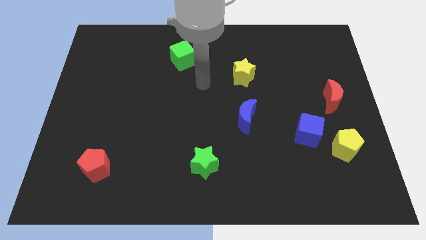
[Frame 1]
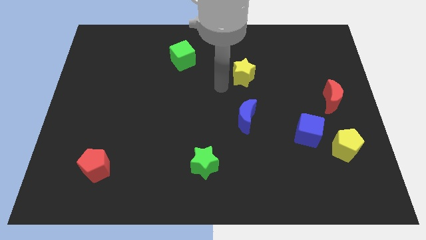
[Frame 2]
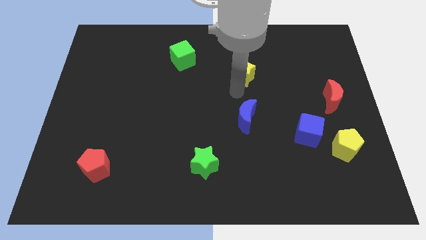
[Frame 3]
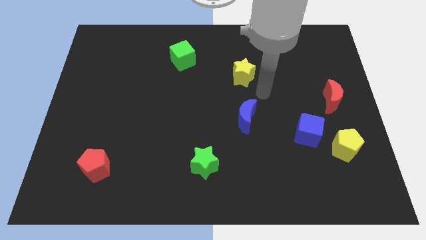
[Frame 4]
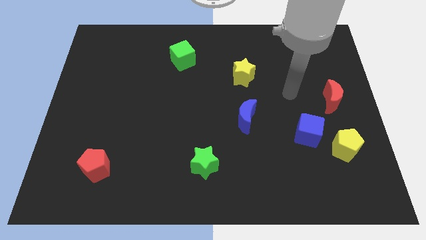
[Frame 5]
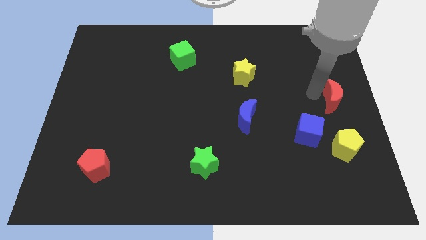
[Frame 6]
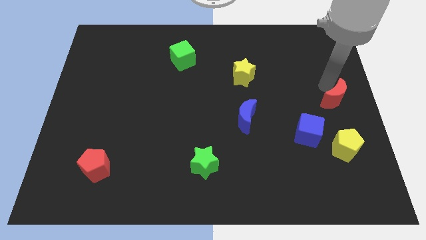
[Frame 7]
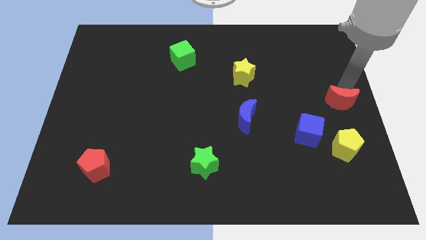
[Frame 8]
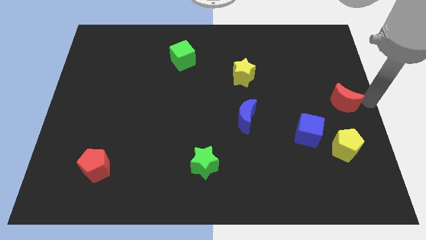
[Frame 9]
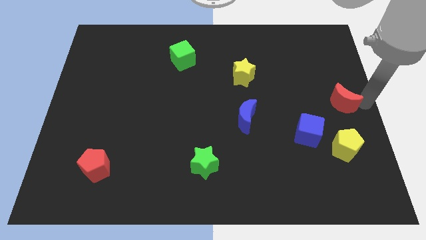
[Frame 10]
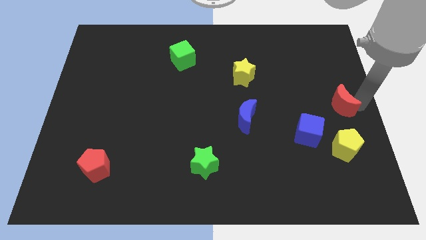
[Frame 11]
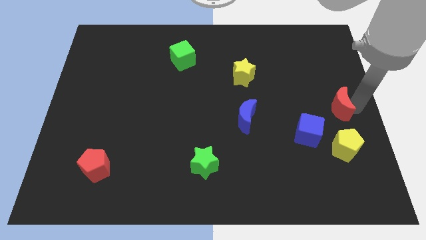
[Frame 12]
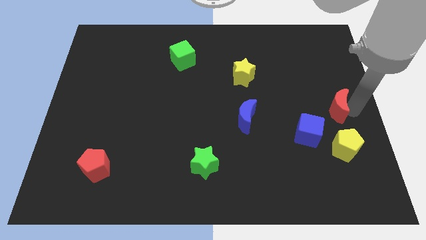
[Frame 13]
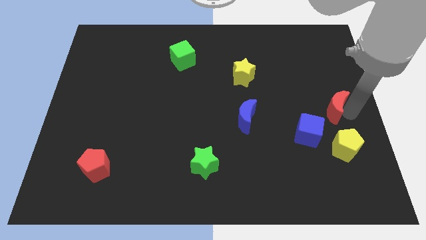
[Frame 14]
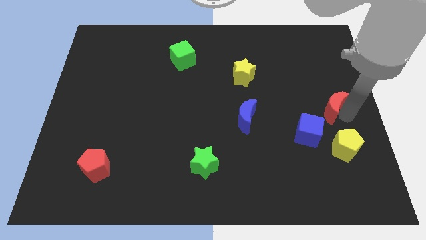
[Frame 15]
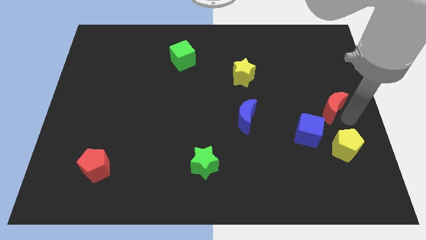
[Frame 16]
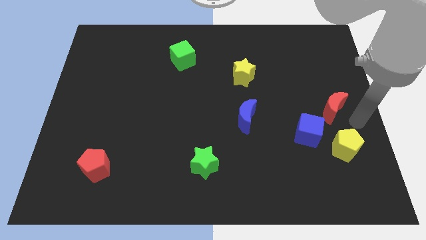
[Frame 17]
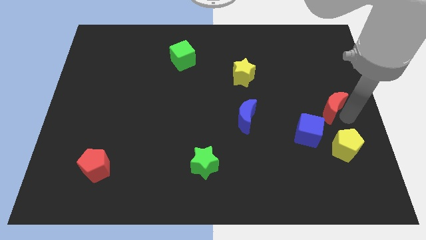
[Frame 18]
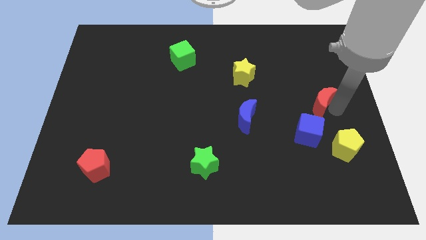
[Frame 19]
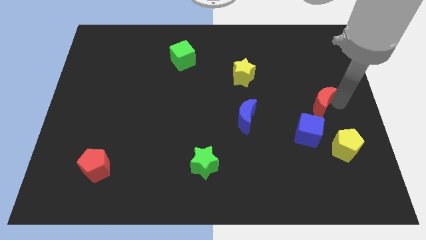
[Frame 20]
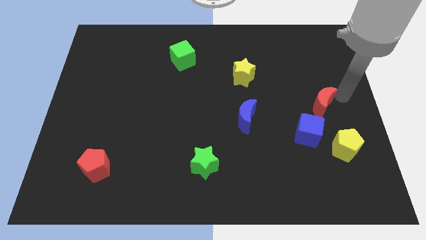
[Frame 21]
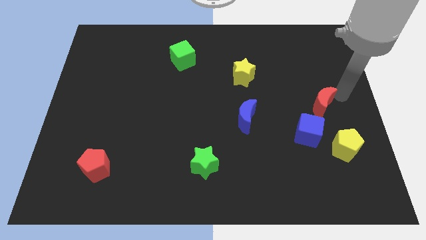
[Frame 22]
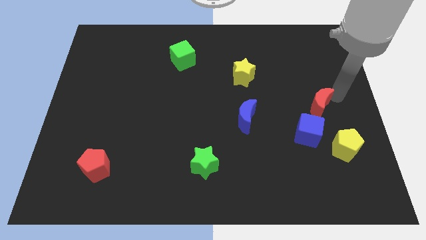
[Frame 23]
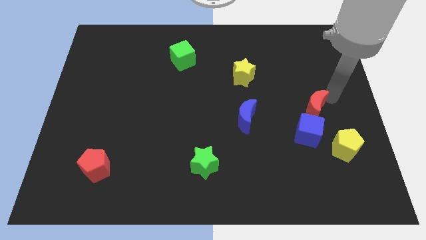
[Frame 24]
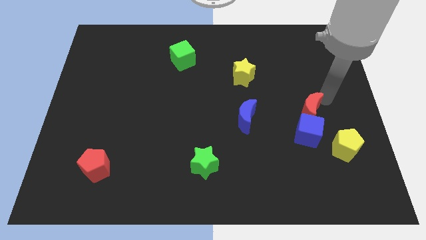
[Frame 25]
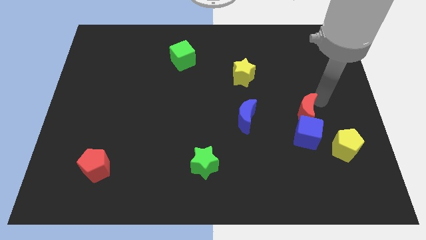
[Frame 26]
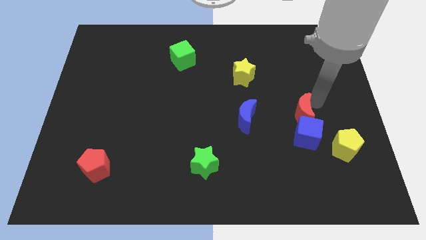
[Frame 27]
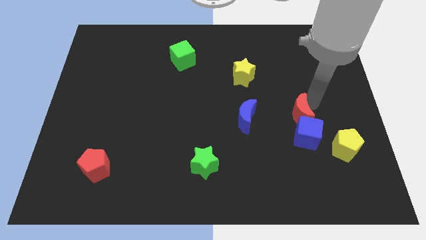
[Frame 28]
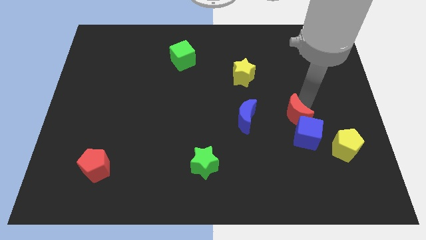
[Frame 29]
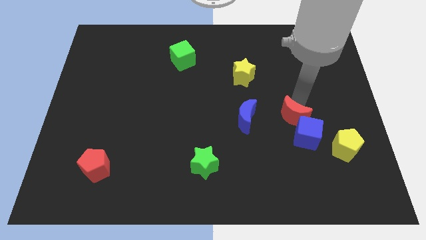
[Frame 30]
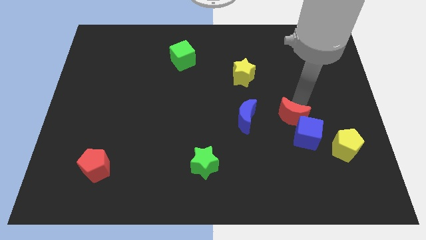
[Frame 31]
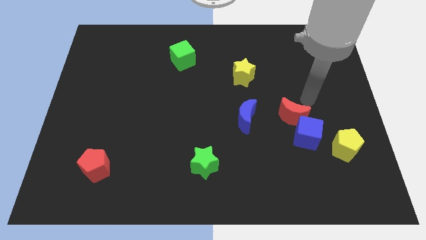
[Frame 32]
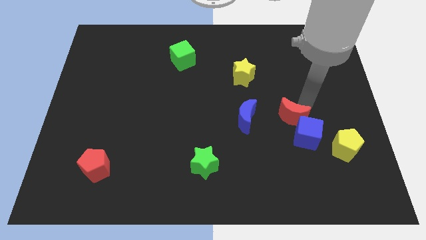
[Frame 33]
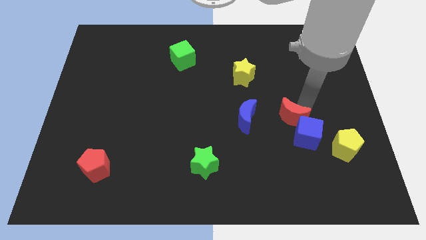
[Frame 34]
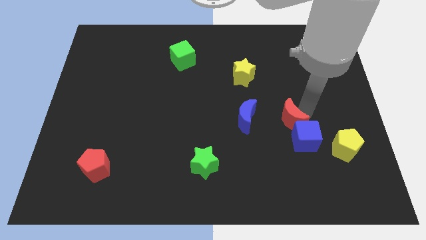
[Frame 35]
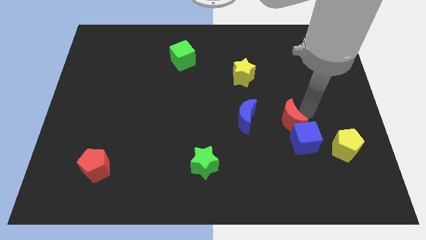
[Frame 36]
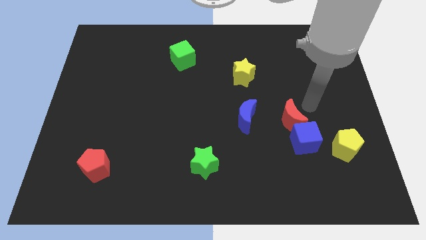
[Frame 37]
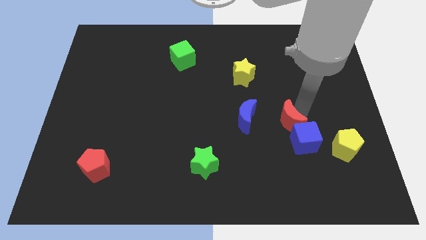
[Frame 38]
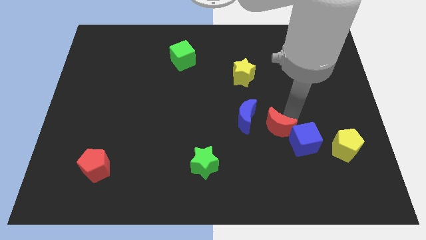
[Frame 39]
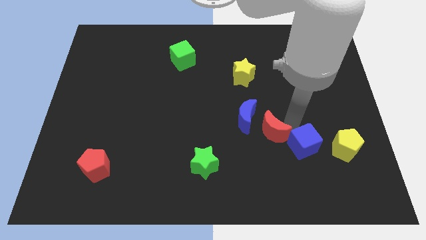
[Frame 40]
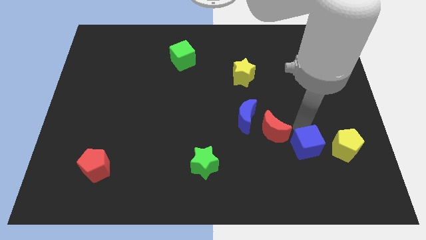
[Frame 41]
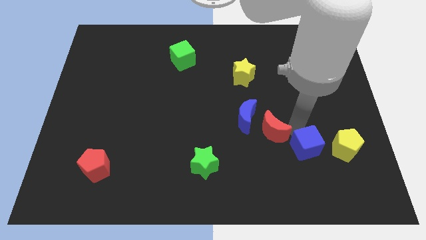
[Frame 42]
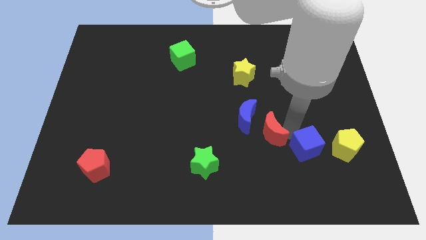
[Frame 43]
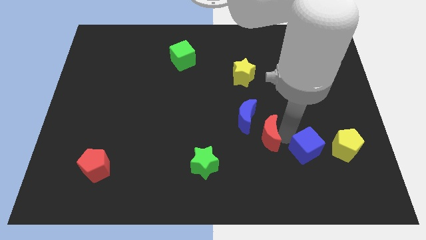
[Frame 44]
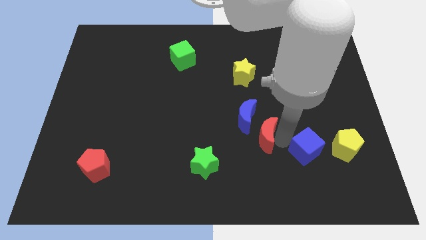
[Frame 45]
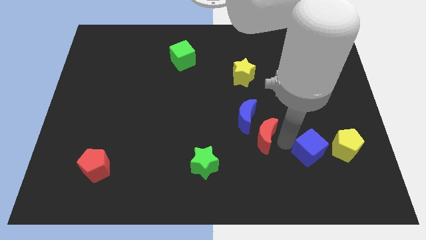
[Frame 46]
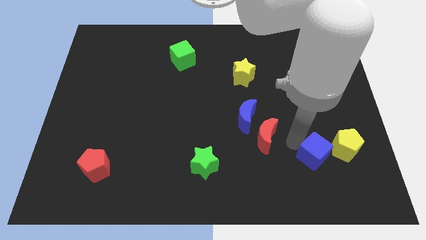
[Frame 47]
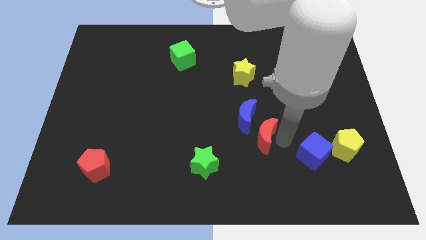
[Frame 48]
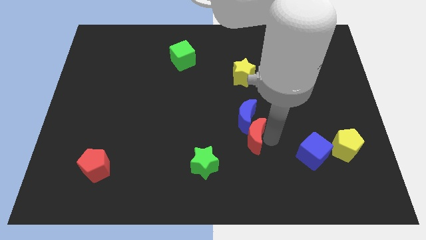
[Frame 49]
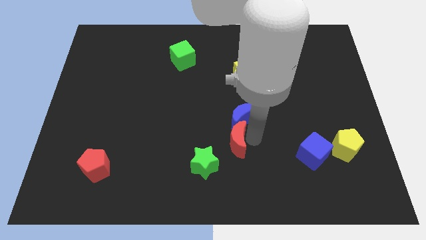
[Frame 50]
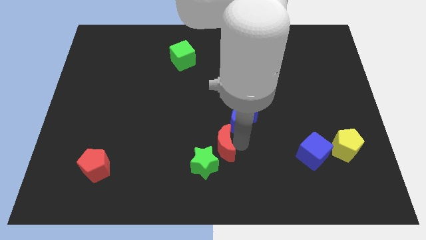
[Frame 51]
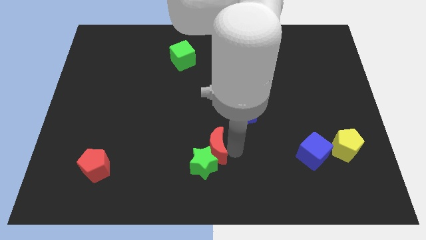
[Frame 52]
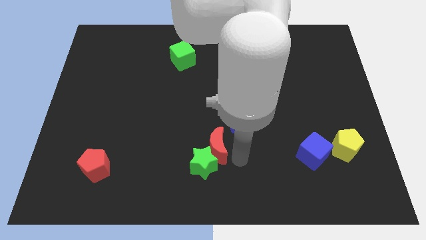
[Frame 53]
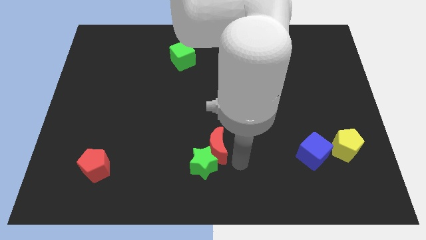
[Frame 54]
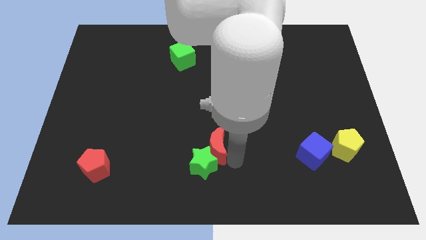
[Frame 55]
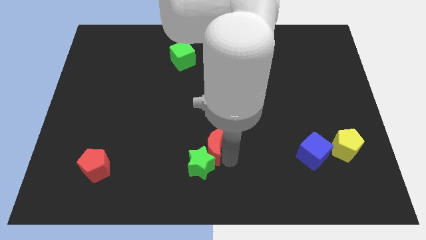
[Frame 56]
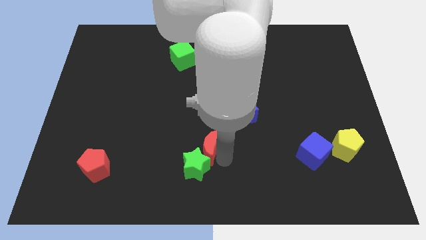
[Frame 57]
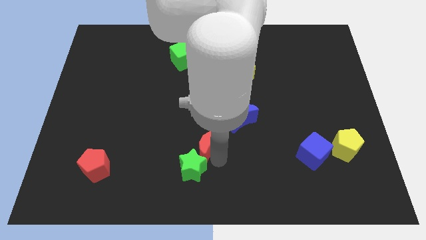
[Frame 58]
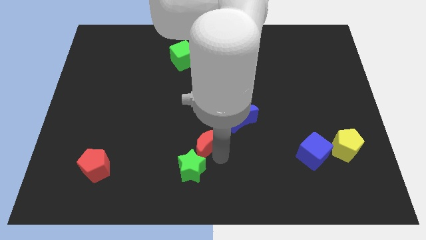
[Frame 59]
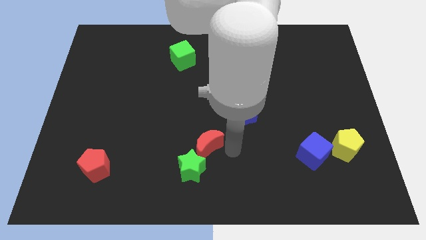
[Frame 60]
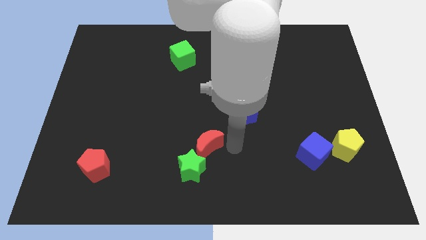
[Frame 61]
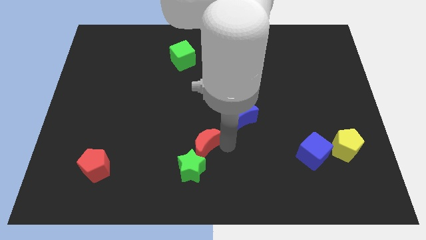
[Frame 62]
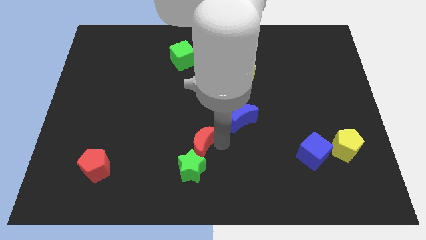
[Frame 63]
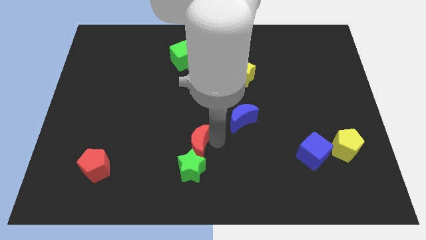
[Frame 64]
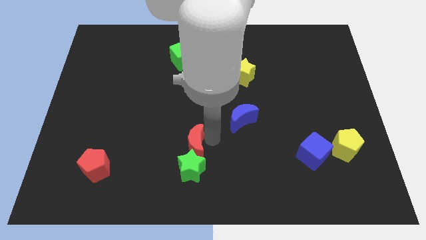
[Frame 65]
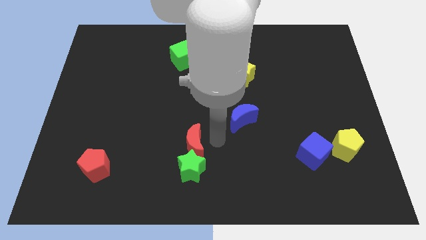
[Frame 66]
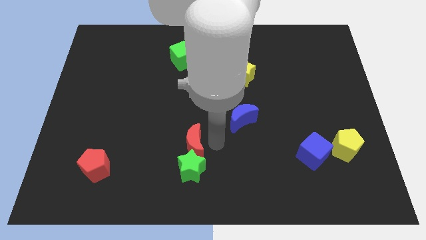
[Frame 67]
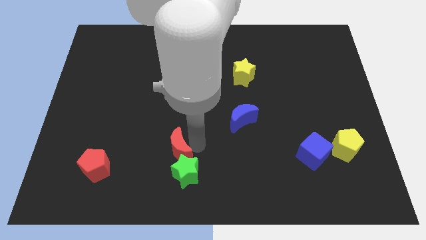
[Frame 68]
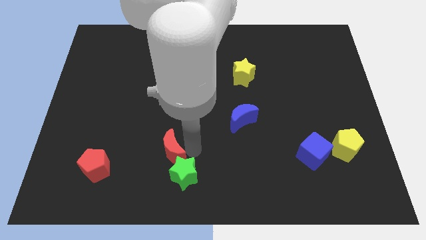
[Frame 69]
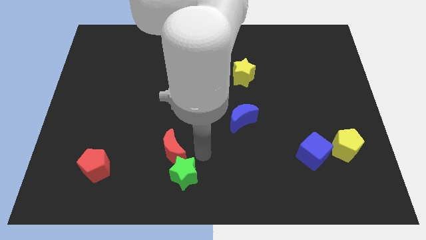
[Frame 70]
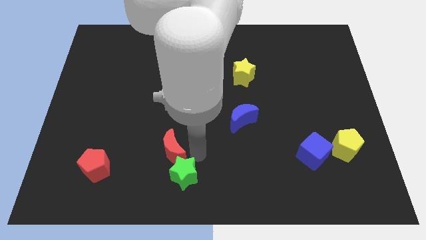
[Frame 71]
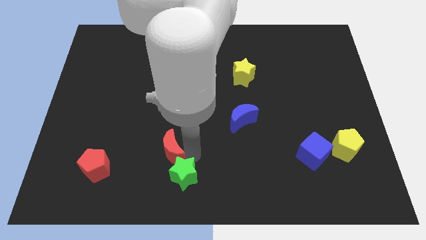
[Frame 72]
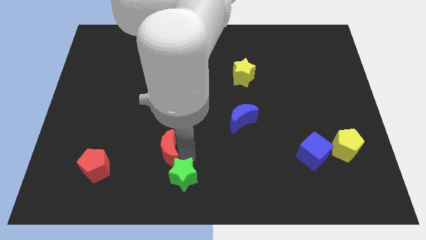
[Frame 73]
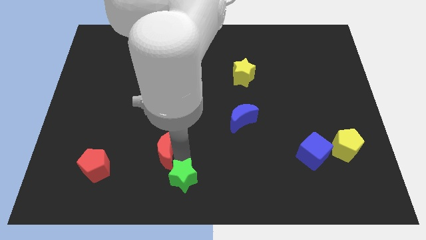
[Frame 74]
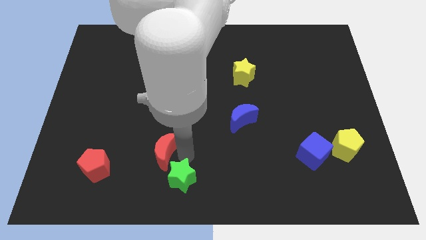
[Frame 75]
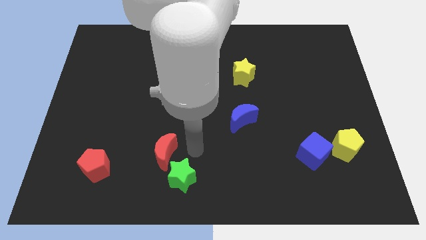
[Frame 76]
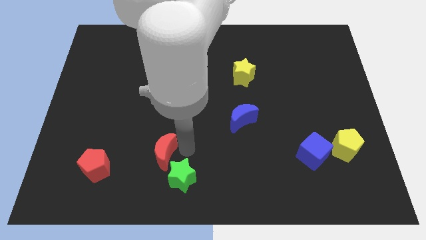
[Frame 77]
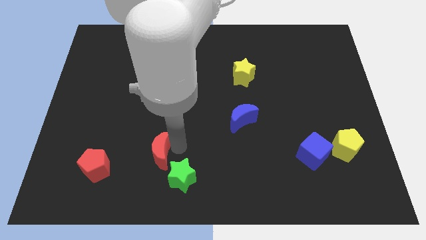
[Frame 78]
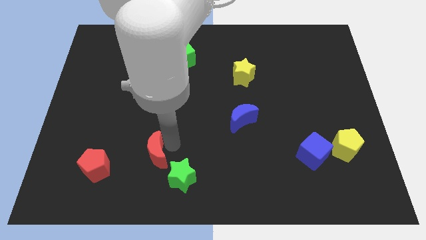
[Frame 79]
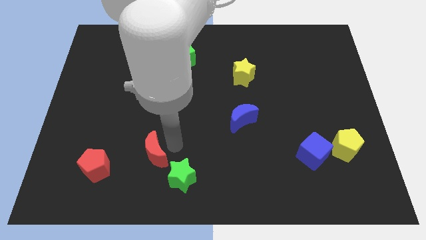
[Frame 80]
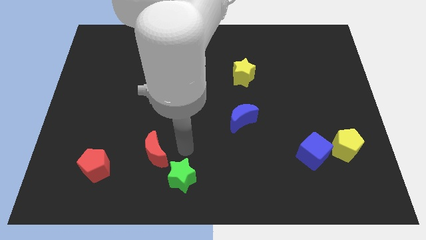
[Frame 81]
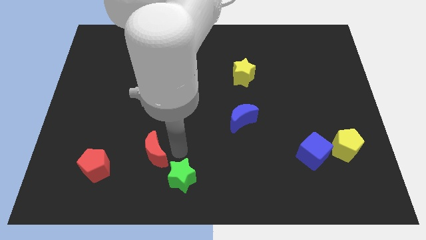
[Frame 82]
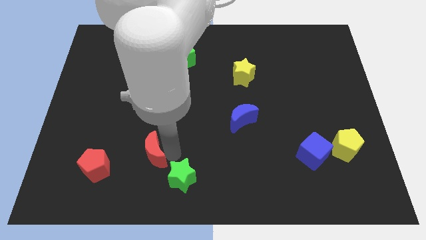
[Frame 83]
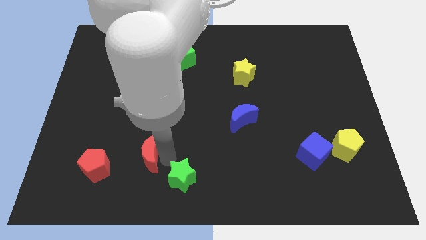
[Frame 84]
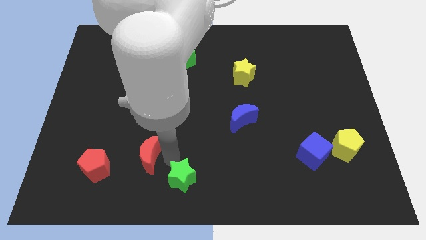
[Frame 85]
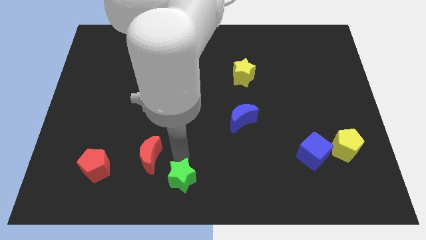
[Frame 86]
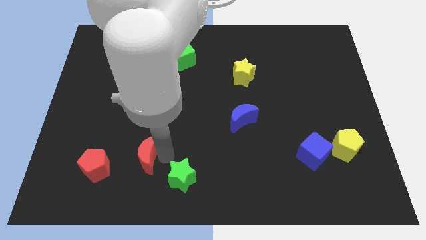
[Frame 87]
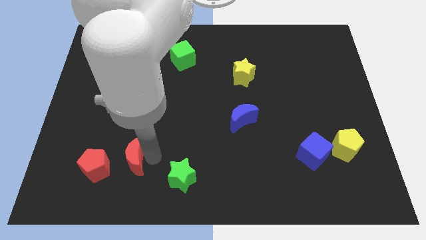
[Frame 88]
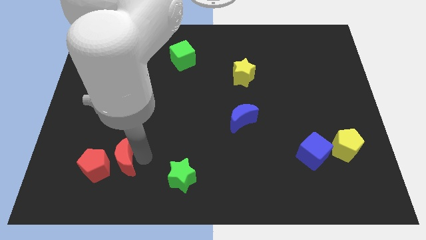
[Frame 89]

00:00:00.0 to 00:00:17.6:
slide the red moon to the red pentagon
